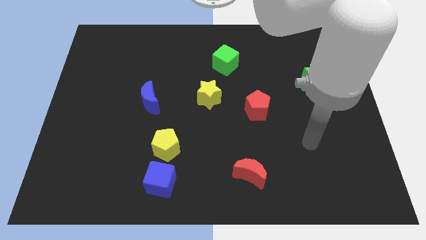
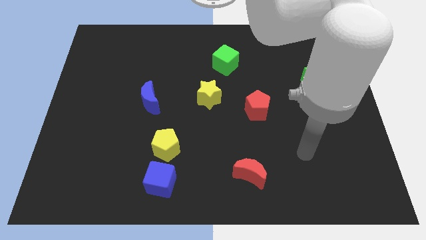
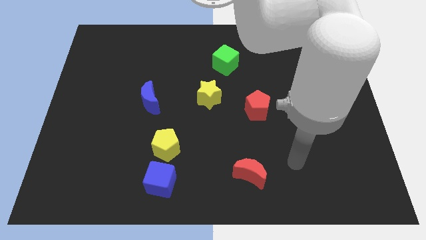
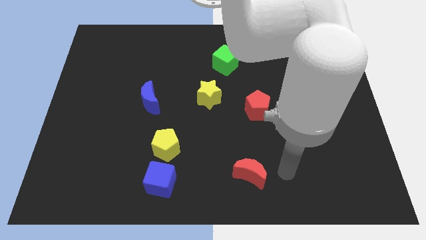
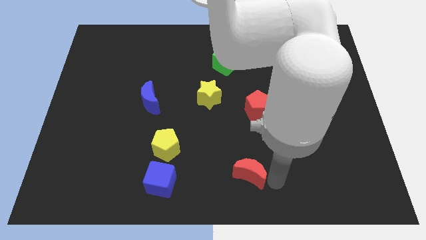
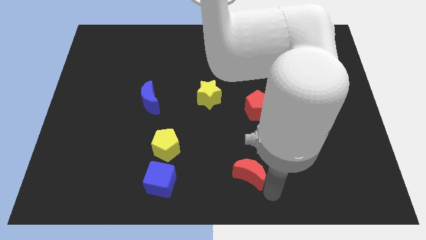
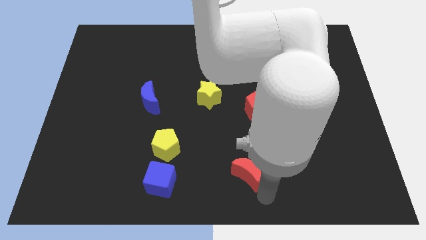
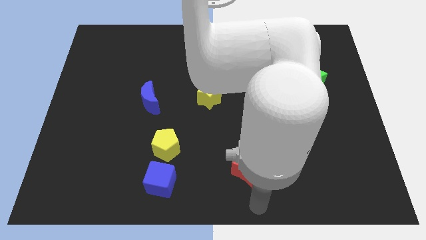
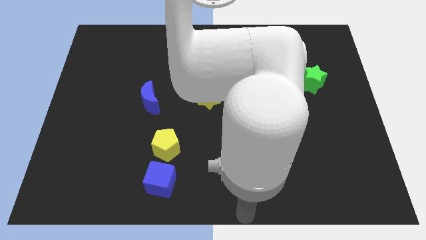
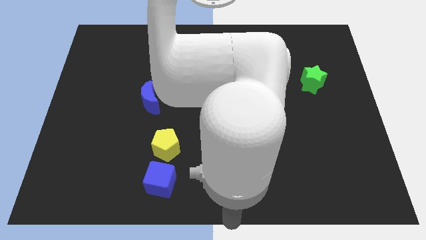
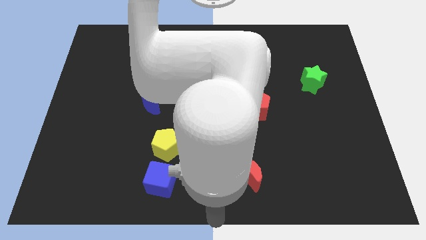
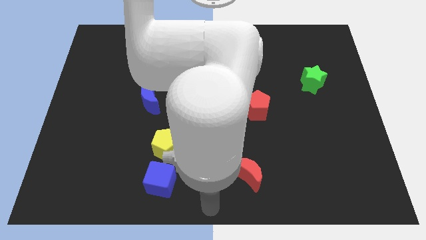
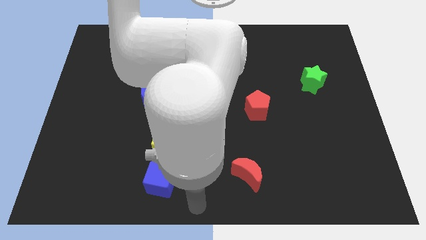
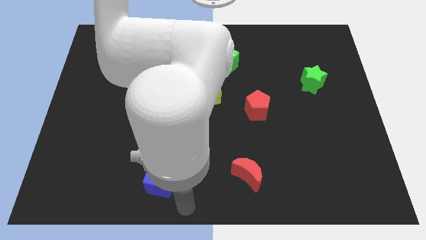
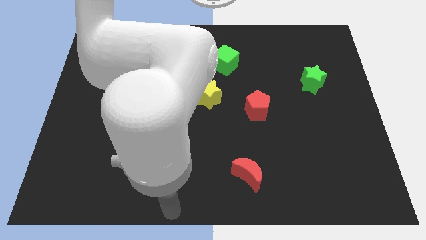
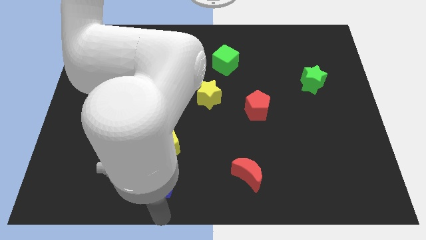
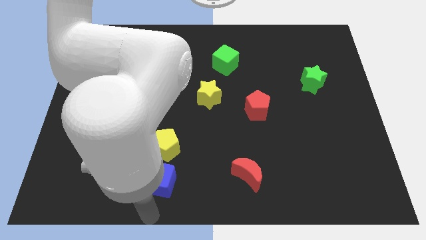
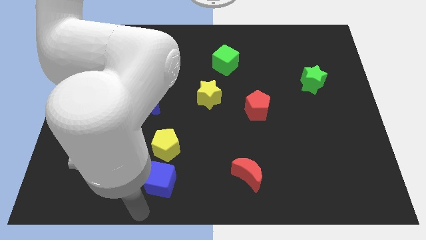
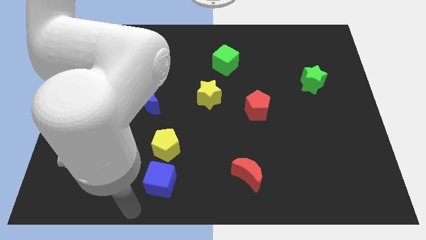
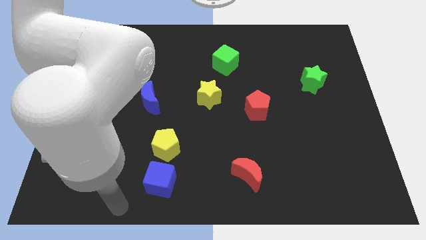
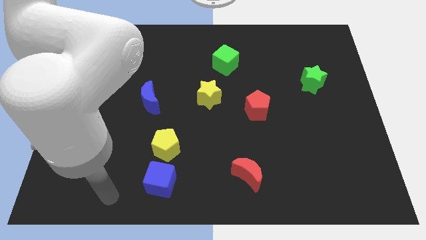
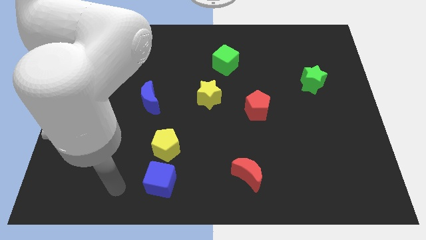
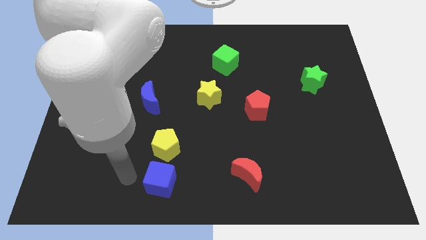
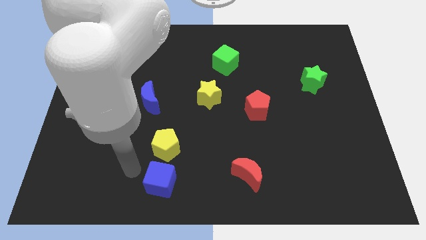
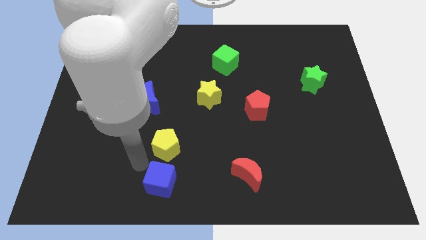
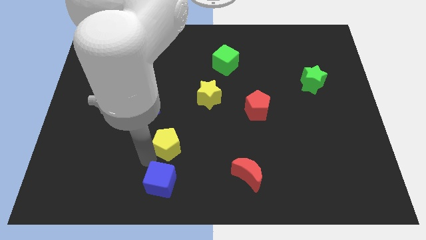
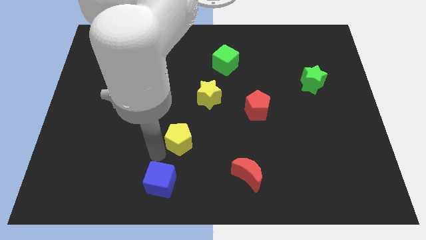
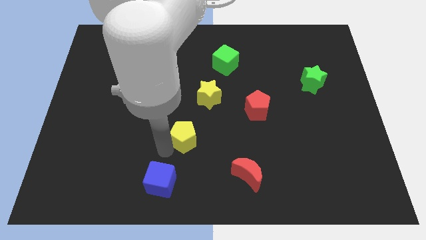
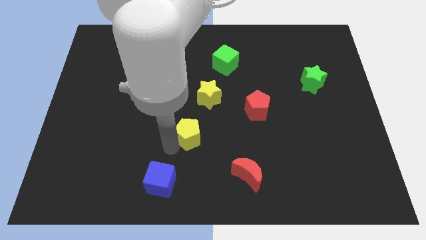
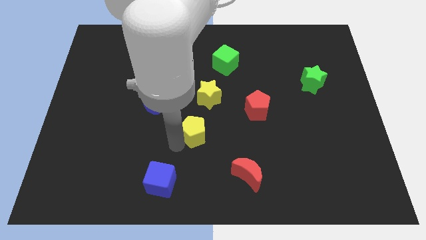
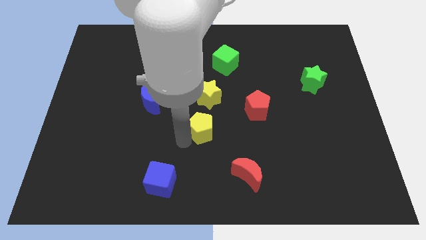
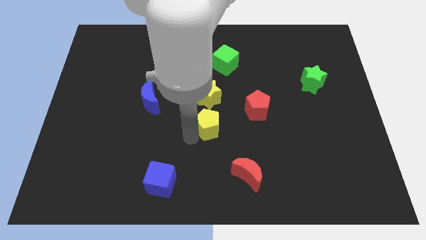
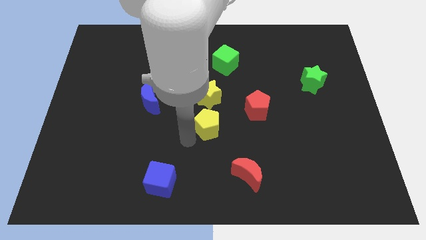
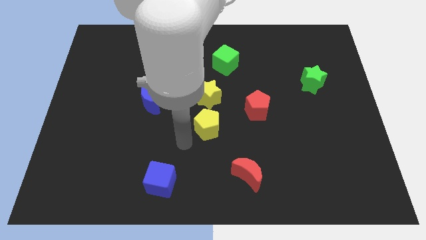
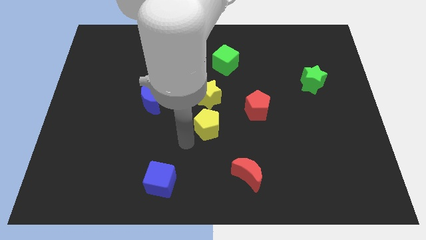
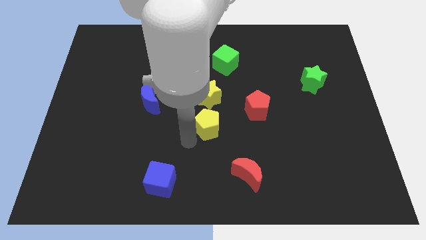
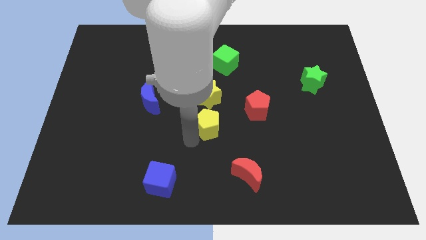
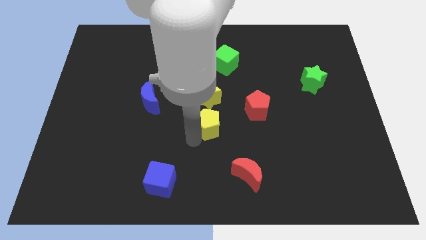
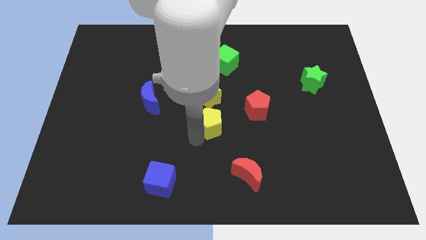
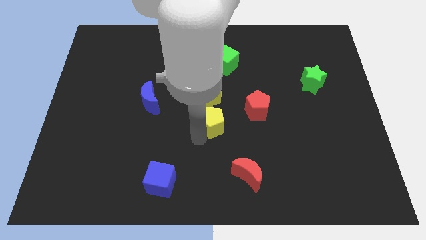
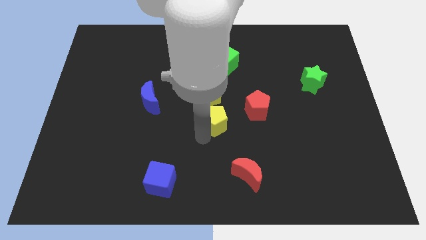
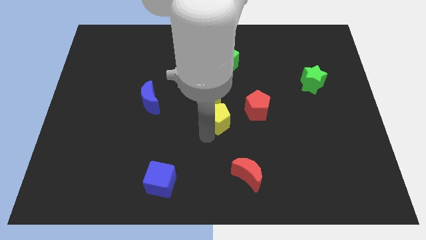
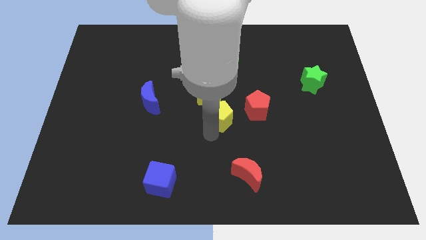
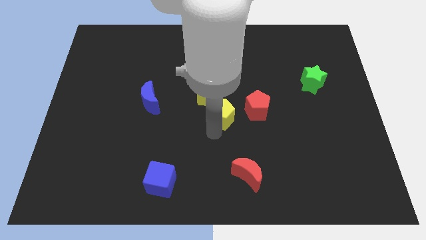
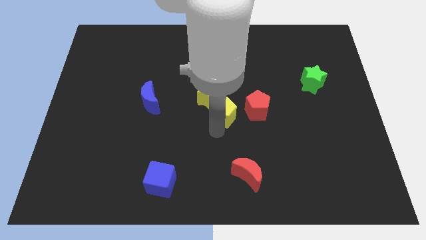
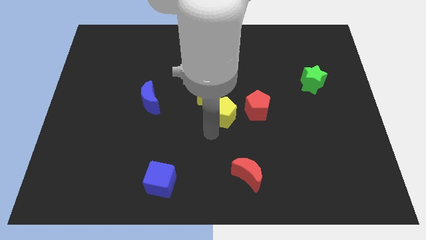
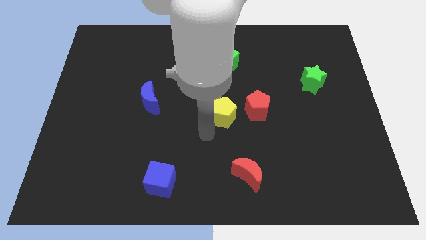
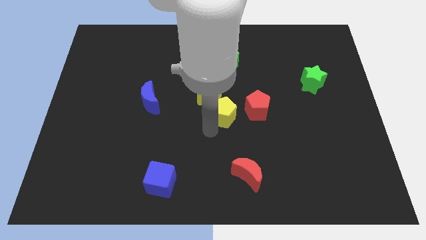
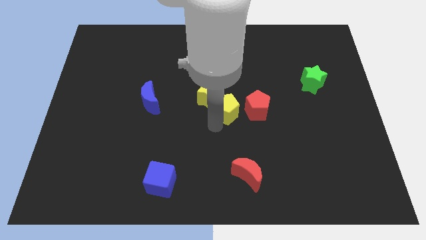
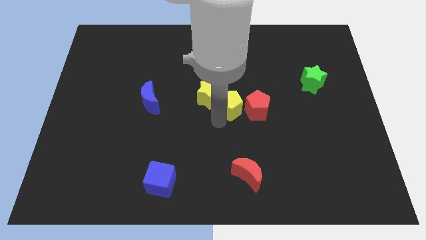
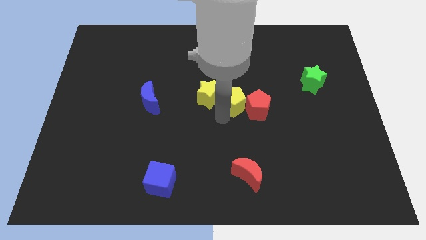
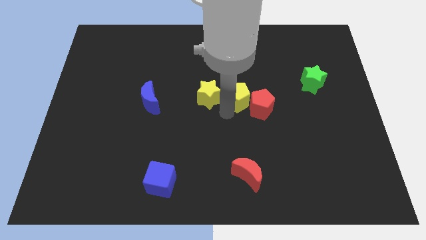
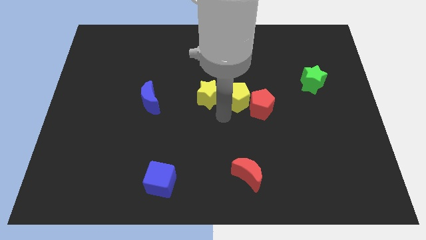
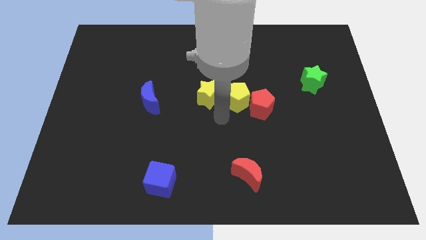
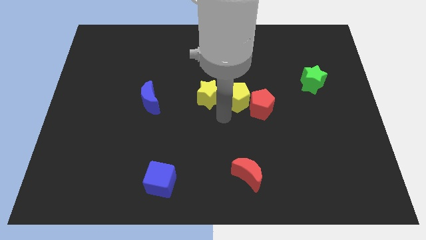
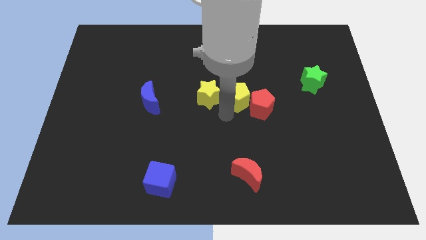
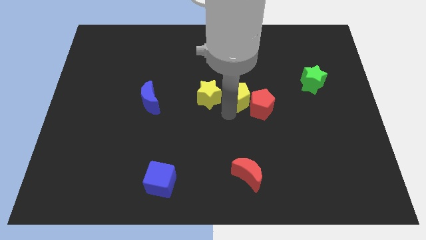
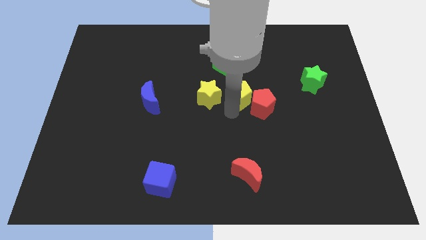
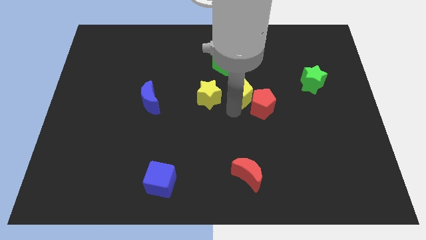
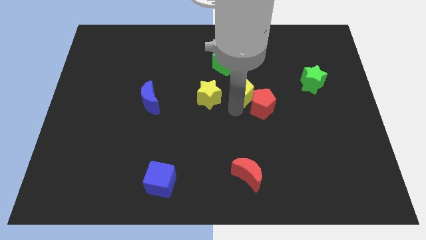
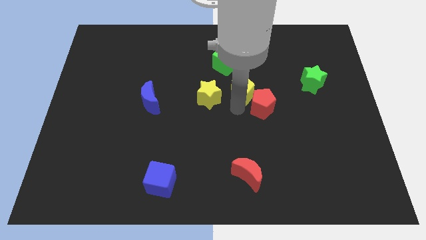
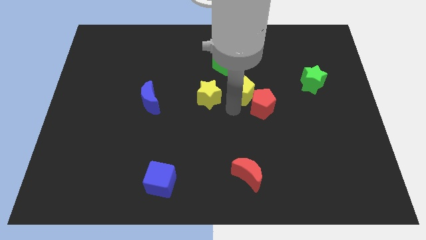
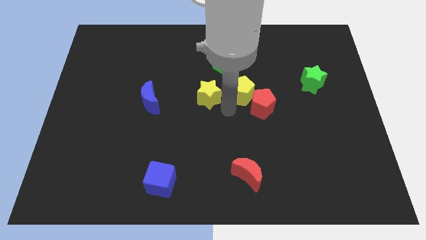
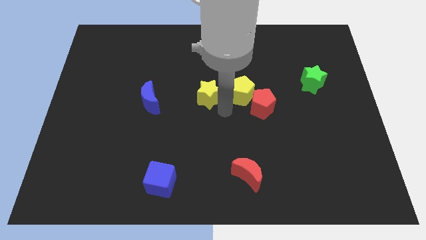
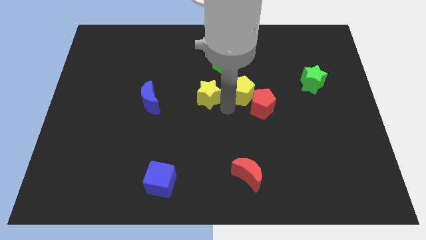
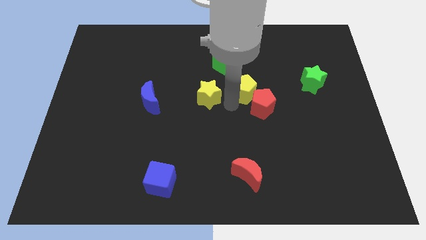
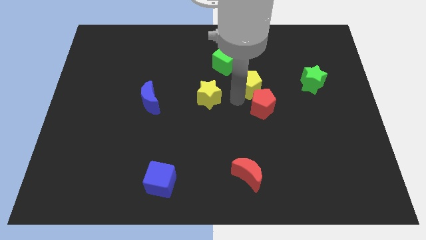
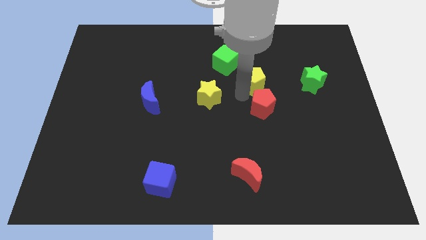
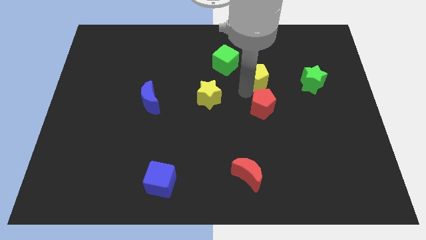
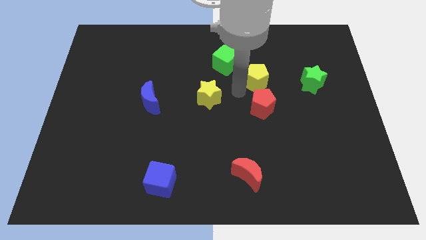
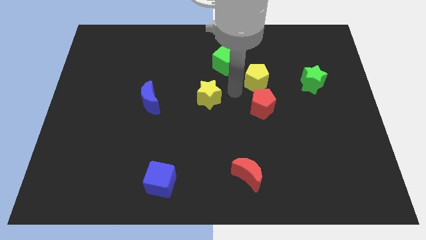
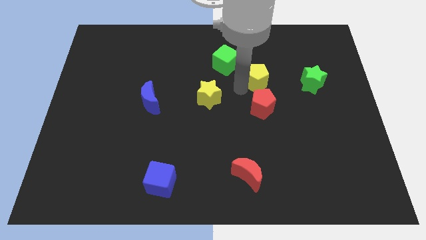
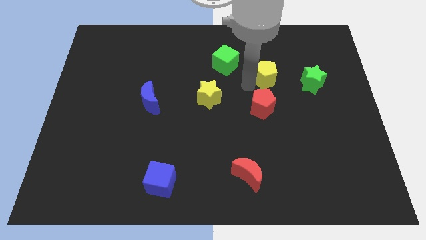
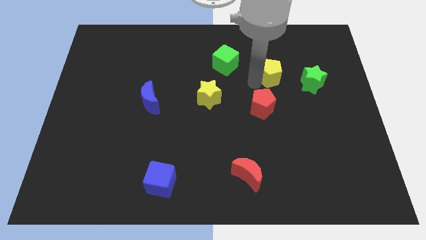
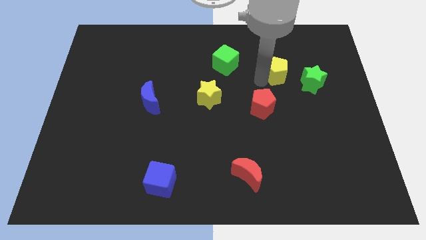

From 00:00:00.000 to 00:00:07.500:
move the yellow pentagon to the top left of the green star
